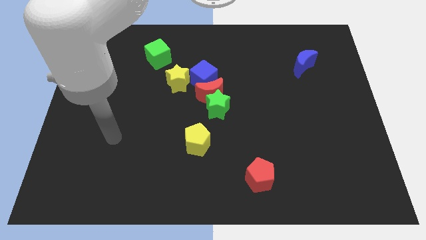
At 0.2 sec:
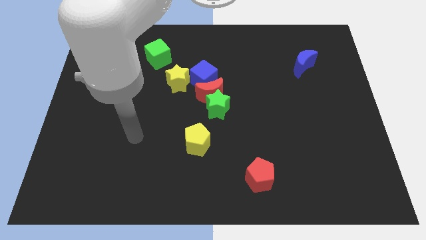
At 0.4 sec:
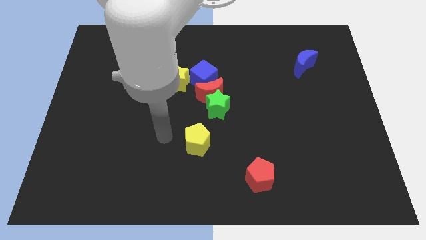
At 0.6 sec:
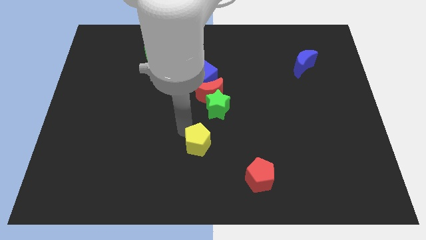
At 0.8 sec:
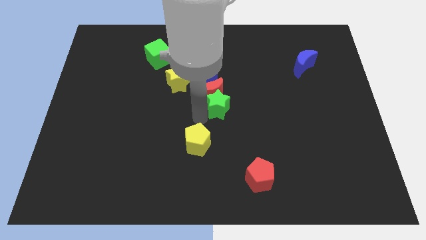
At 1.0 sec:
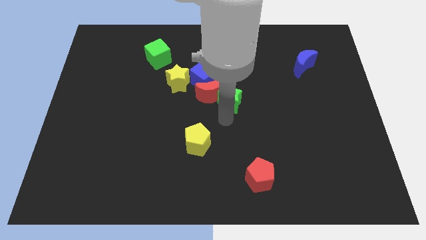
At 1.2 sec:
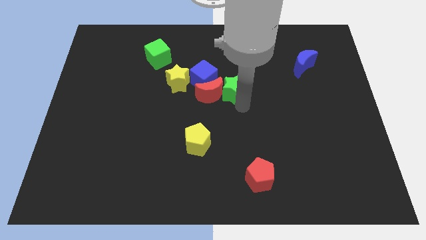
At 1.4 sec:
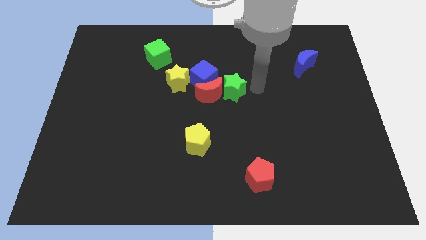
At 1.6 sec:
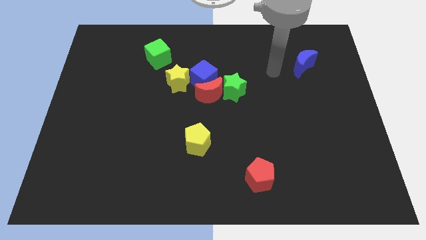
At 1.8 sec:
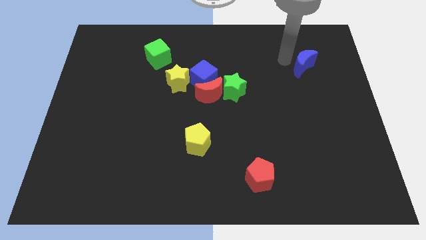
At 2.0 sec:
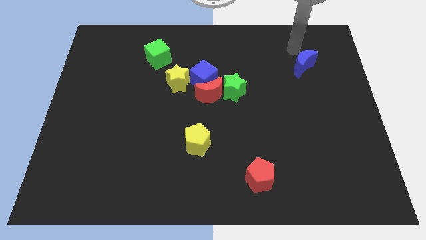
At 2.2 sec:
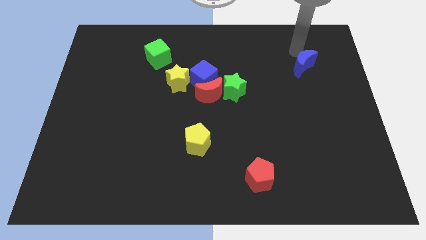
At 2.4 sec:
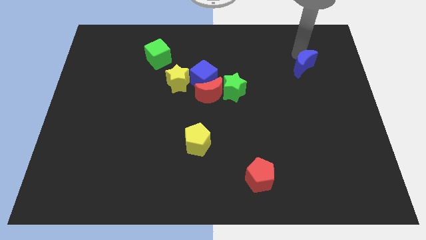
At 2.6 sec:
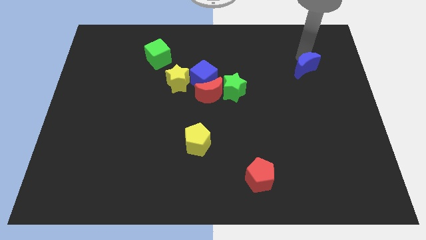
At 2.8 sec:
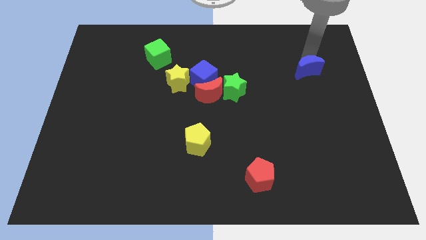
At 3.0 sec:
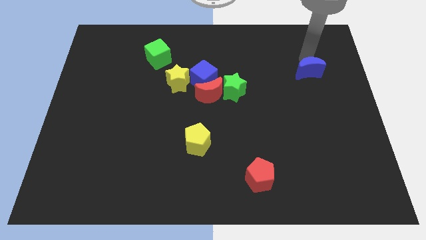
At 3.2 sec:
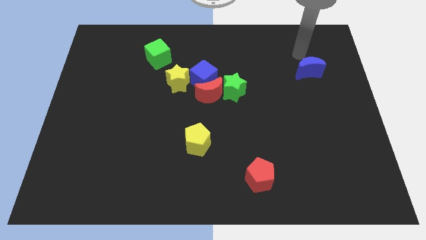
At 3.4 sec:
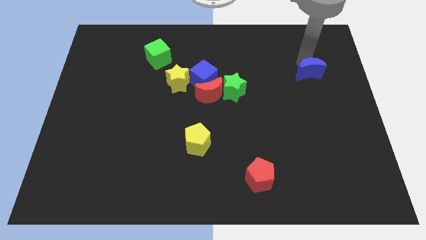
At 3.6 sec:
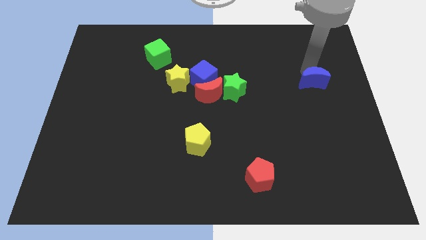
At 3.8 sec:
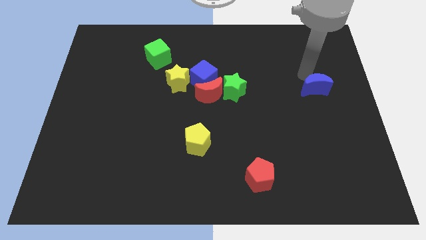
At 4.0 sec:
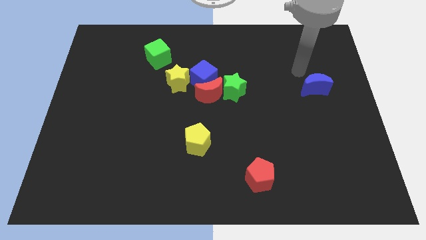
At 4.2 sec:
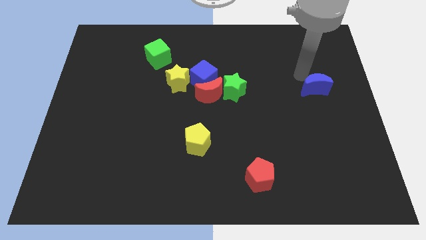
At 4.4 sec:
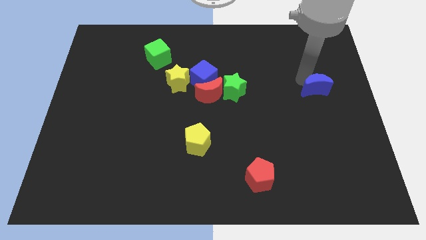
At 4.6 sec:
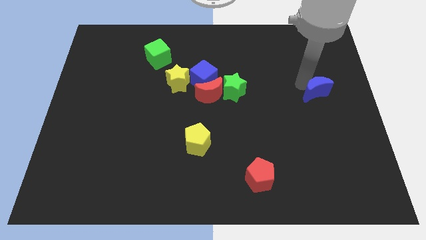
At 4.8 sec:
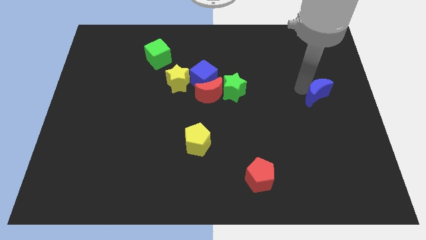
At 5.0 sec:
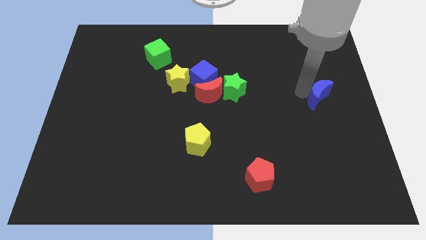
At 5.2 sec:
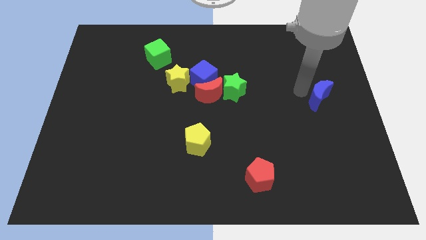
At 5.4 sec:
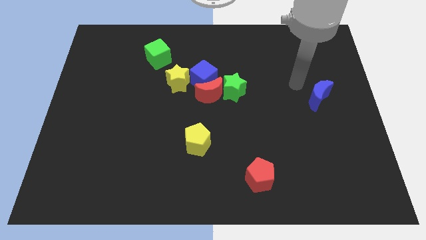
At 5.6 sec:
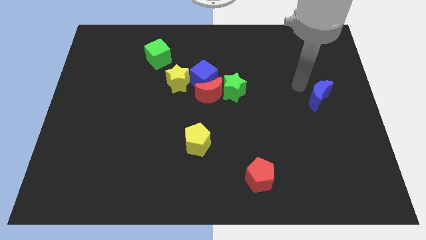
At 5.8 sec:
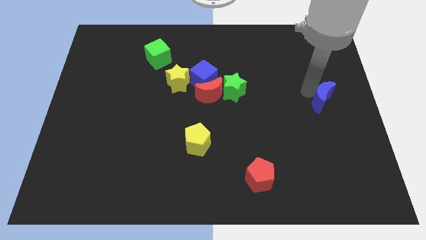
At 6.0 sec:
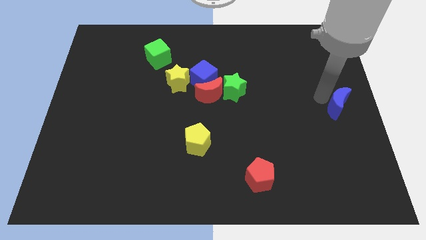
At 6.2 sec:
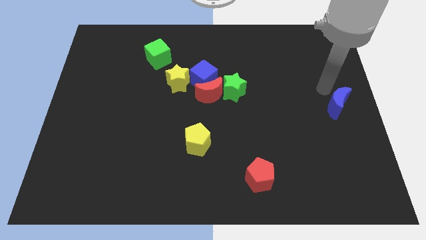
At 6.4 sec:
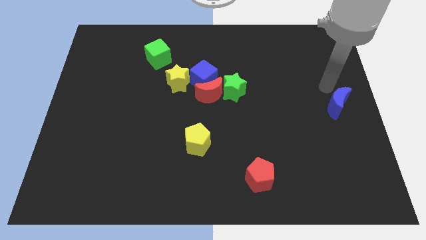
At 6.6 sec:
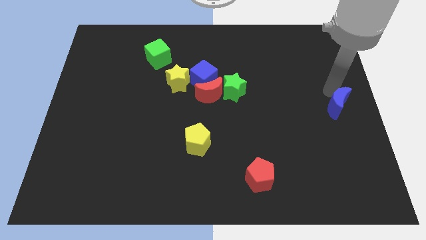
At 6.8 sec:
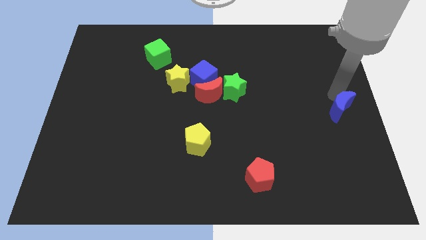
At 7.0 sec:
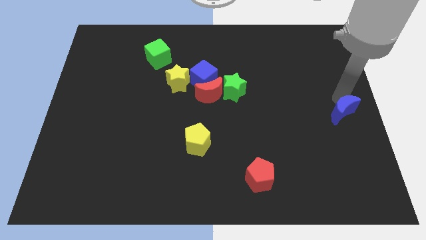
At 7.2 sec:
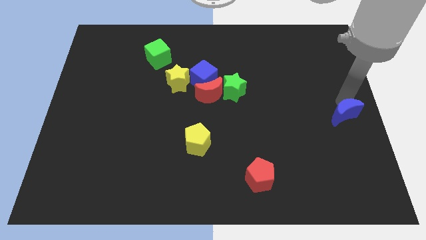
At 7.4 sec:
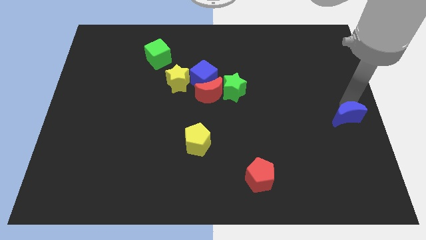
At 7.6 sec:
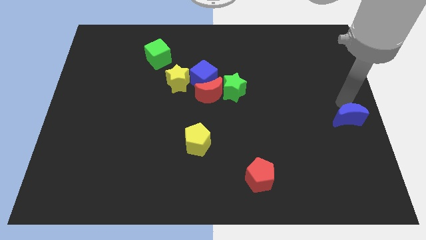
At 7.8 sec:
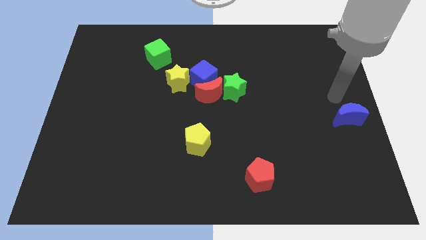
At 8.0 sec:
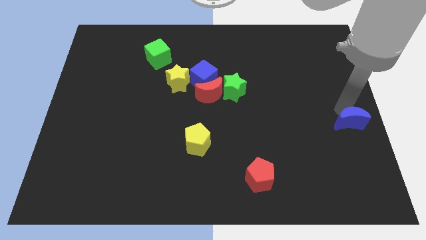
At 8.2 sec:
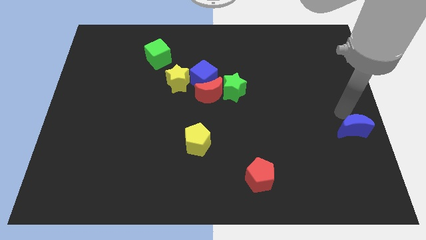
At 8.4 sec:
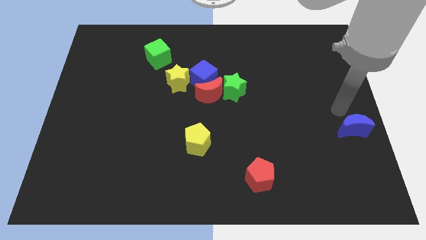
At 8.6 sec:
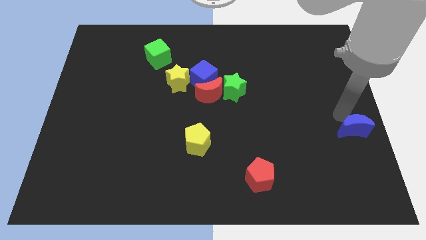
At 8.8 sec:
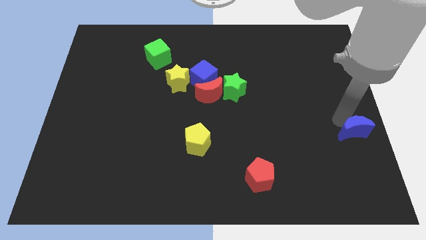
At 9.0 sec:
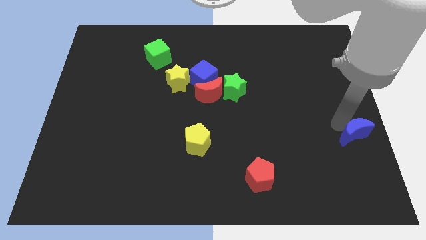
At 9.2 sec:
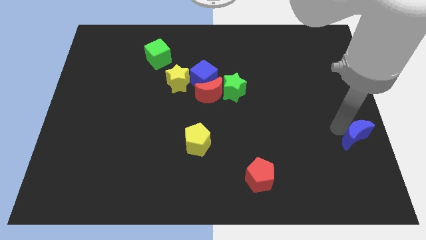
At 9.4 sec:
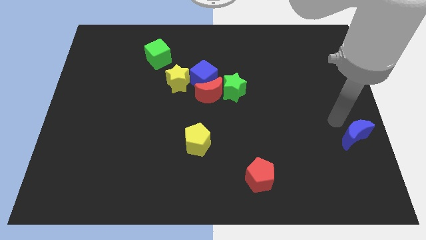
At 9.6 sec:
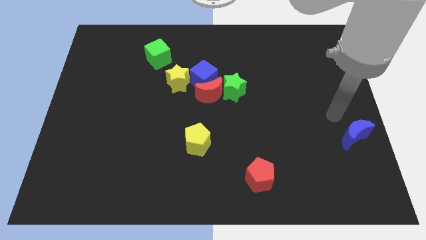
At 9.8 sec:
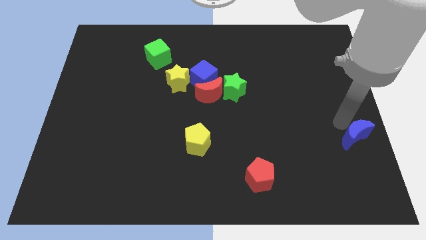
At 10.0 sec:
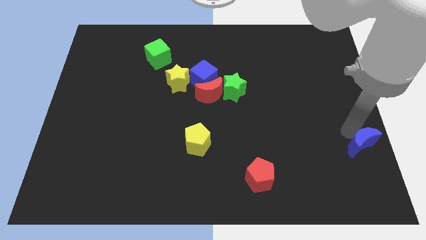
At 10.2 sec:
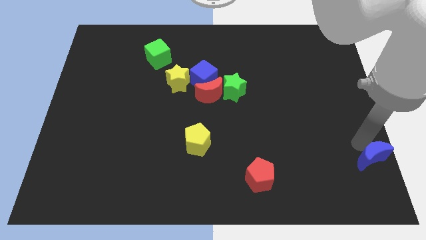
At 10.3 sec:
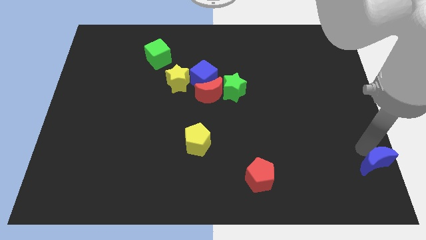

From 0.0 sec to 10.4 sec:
move the blue moon to the bottom right
